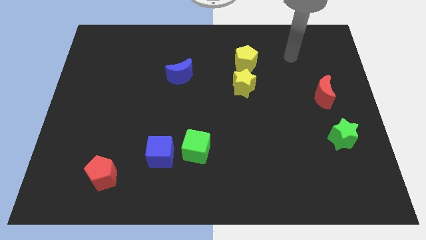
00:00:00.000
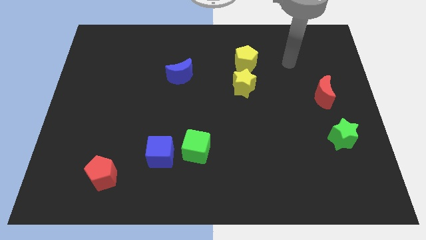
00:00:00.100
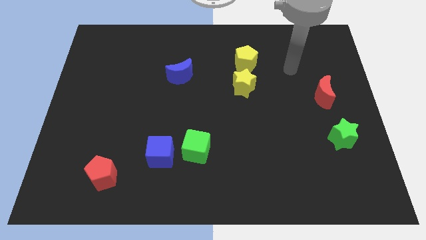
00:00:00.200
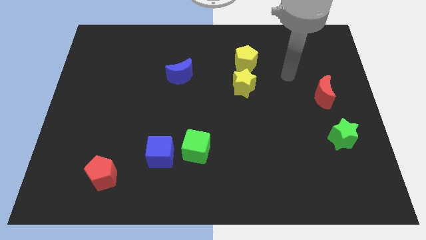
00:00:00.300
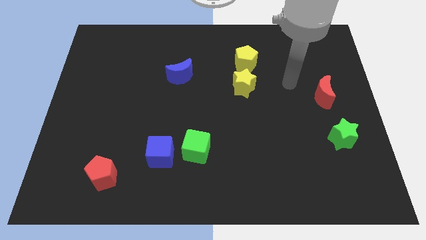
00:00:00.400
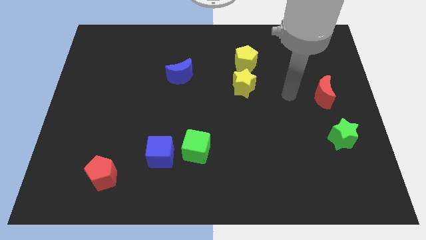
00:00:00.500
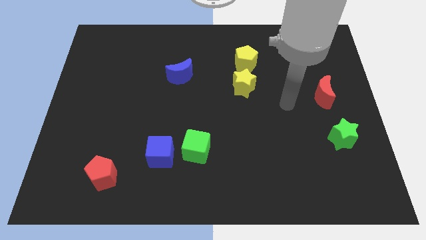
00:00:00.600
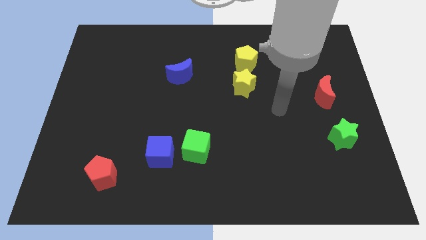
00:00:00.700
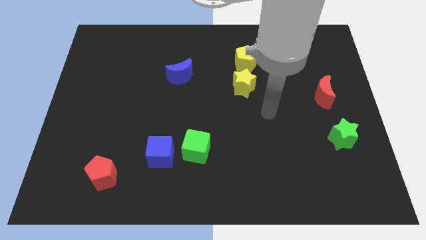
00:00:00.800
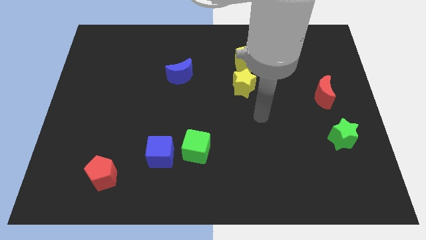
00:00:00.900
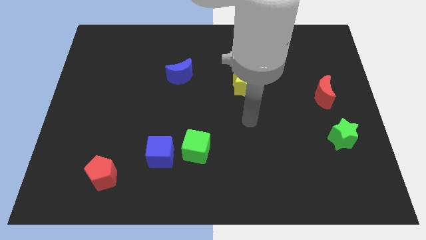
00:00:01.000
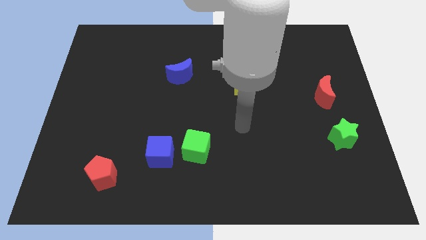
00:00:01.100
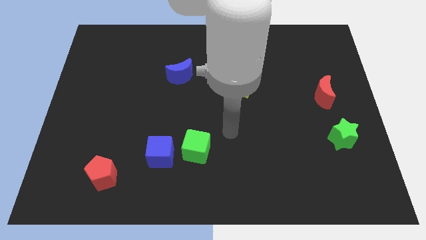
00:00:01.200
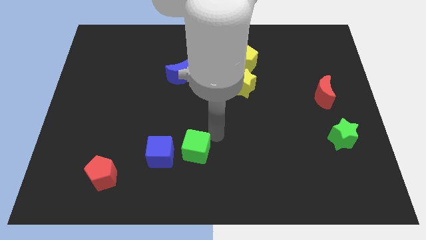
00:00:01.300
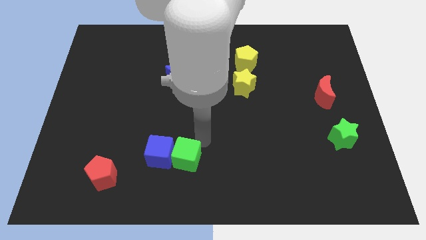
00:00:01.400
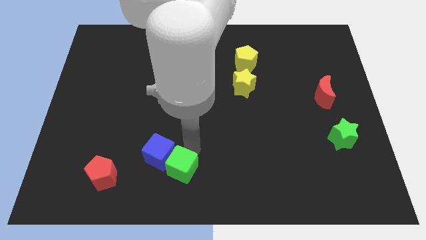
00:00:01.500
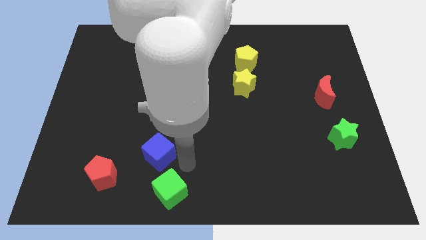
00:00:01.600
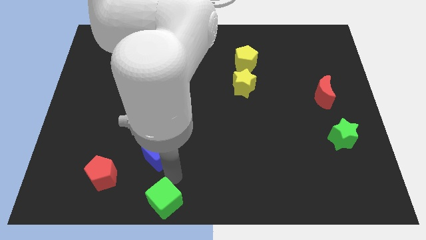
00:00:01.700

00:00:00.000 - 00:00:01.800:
pull the blue cube apart from the green cube

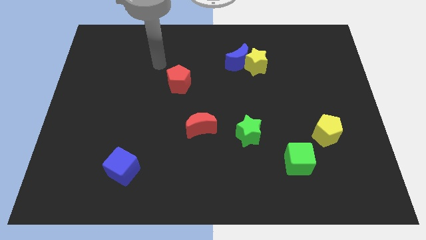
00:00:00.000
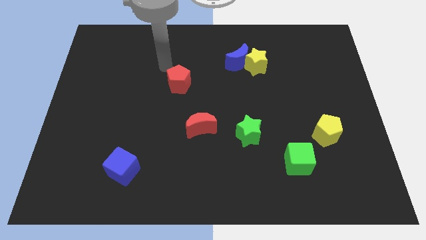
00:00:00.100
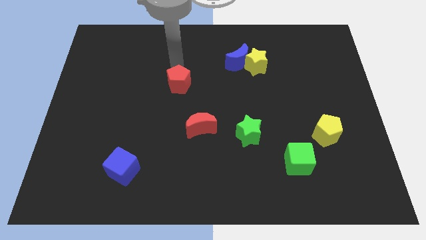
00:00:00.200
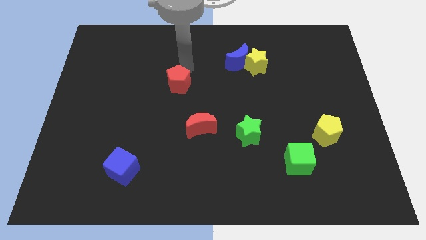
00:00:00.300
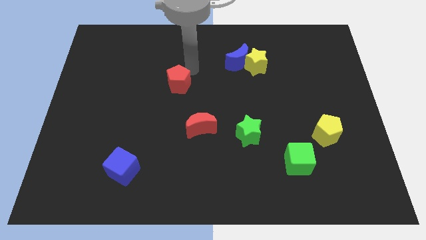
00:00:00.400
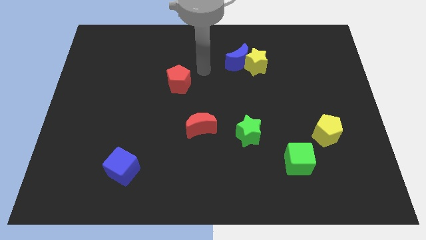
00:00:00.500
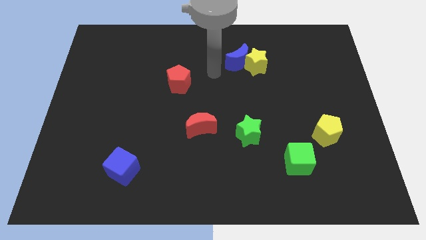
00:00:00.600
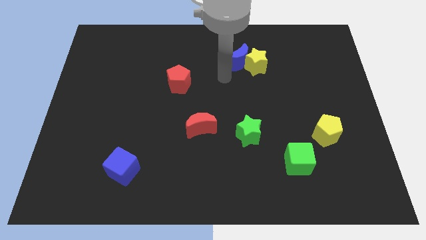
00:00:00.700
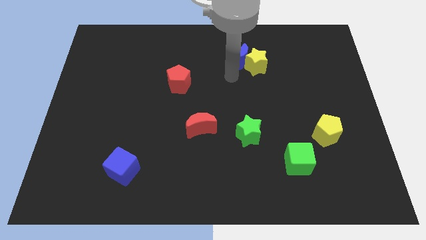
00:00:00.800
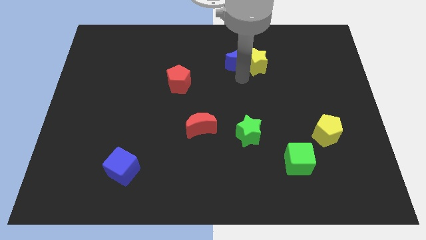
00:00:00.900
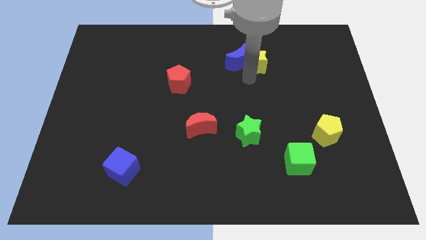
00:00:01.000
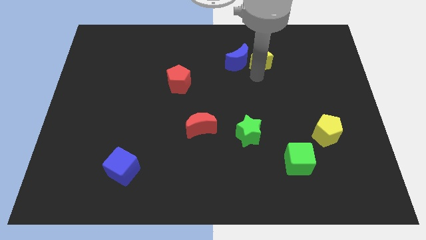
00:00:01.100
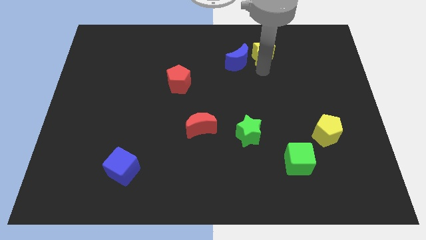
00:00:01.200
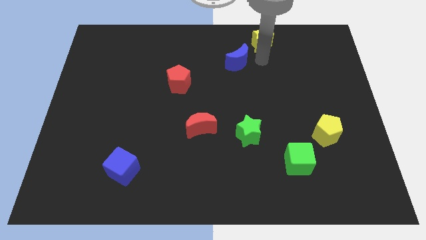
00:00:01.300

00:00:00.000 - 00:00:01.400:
separate the blue moon from the yellow star

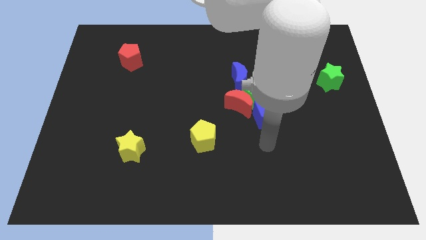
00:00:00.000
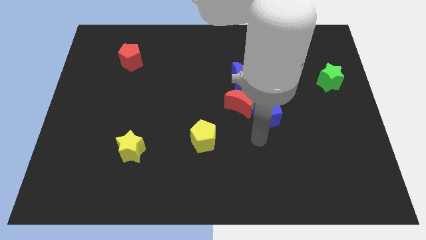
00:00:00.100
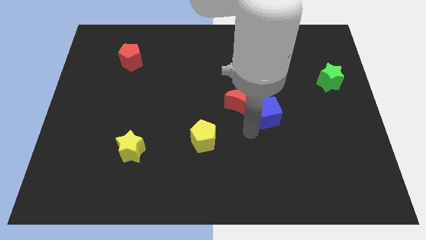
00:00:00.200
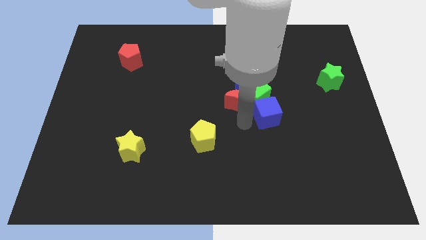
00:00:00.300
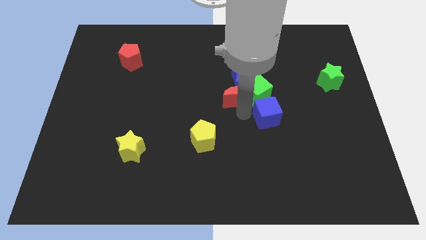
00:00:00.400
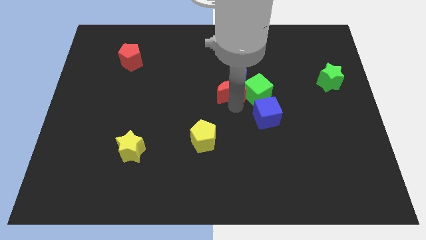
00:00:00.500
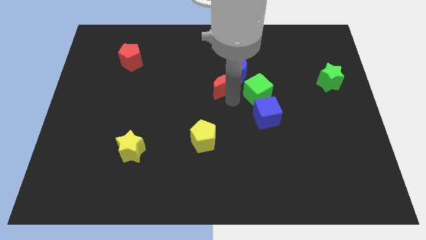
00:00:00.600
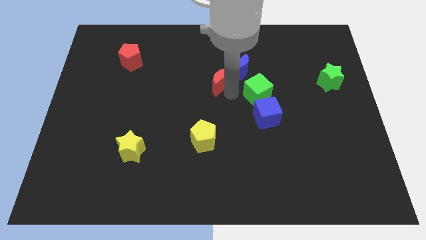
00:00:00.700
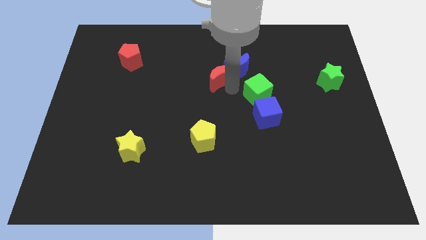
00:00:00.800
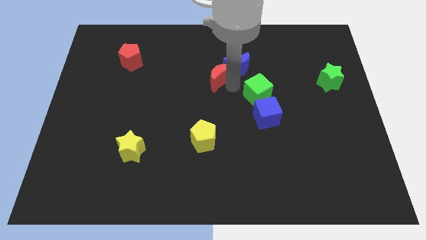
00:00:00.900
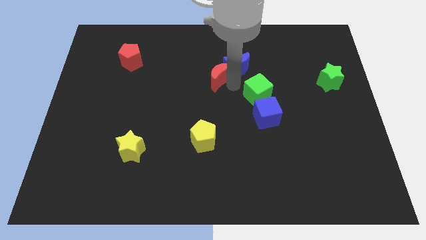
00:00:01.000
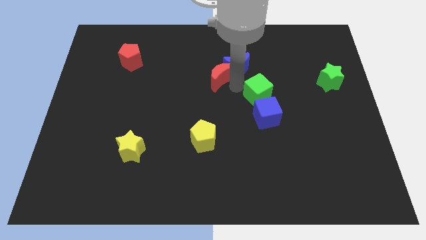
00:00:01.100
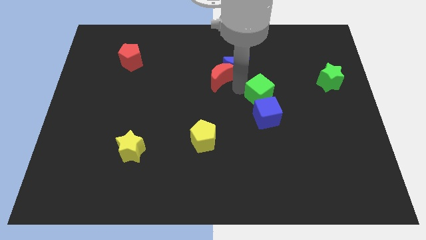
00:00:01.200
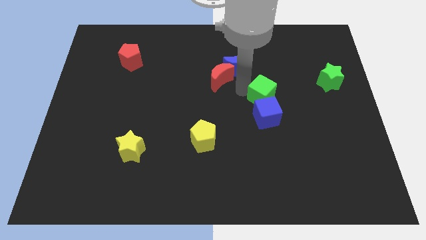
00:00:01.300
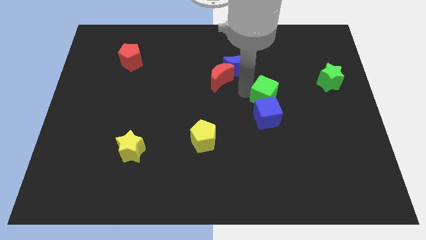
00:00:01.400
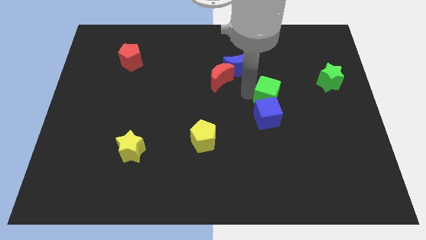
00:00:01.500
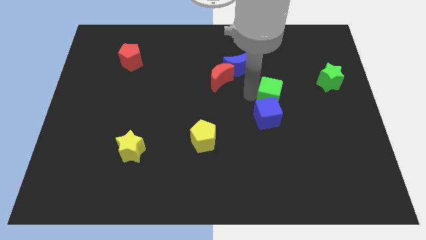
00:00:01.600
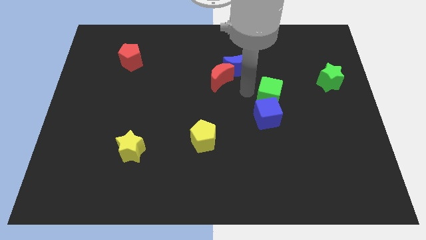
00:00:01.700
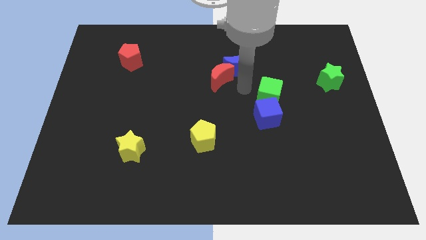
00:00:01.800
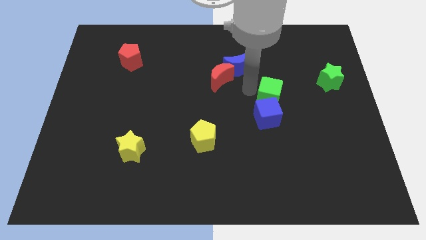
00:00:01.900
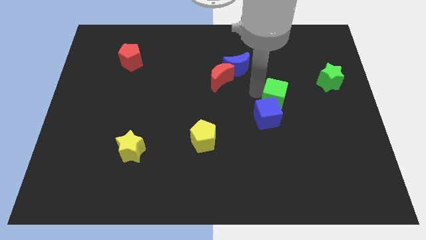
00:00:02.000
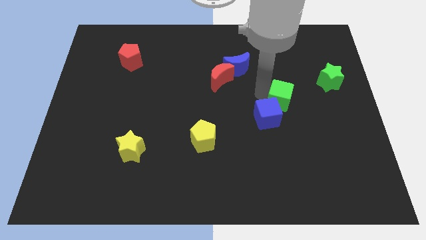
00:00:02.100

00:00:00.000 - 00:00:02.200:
pull the green cube apart from the clump

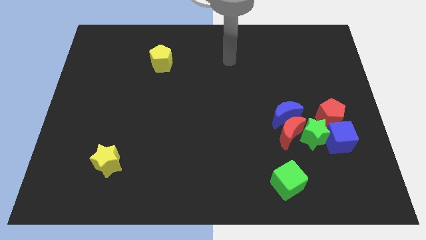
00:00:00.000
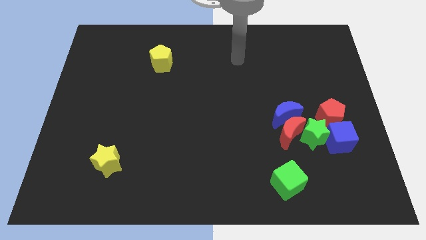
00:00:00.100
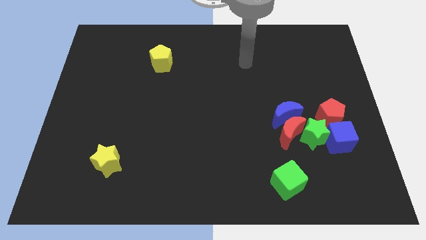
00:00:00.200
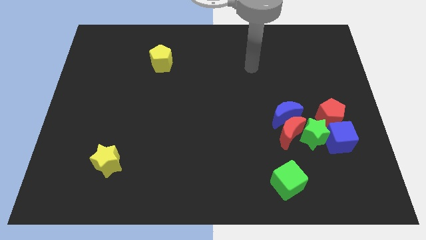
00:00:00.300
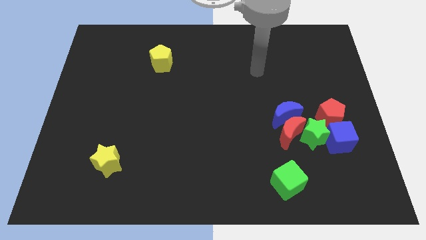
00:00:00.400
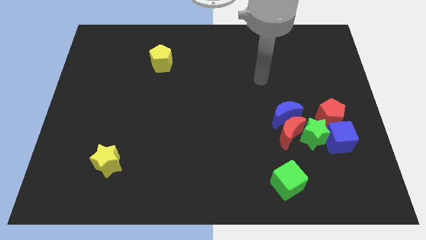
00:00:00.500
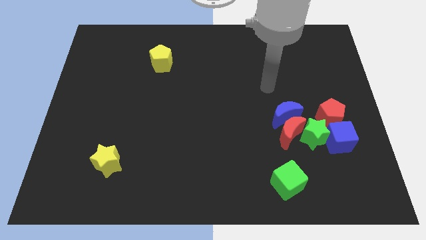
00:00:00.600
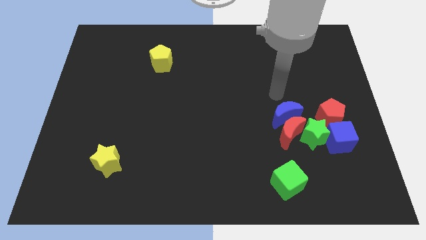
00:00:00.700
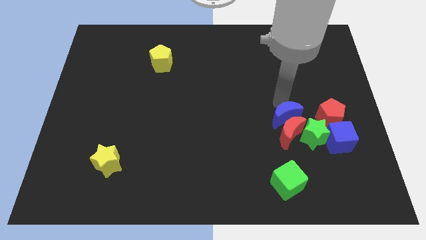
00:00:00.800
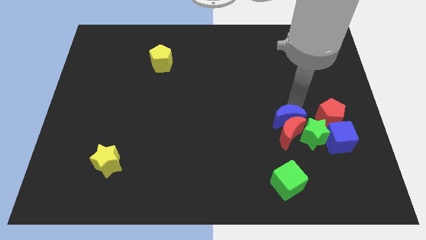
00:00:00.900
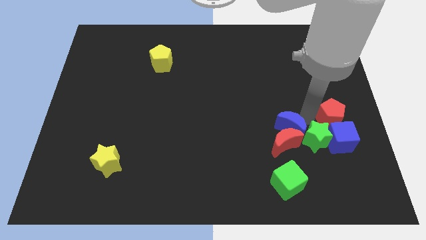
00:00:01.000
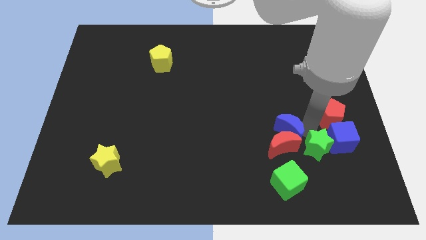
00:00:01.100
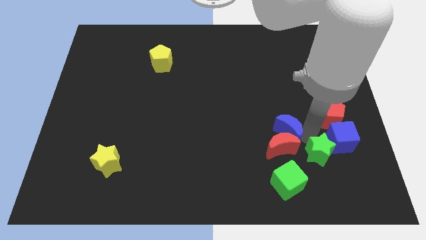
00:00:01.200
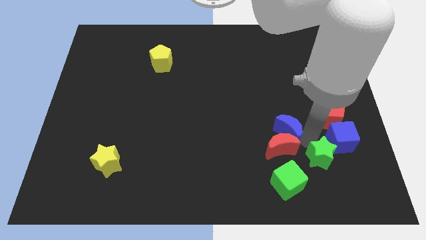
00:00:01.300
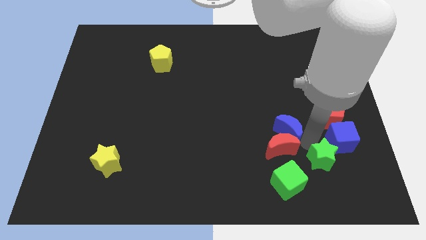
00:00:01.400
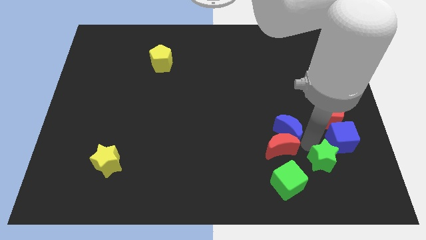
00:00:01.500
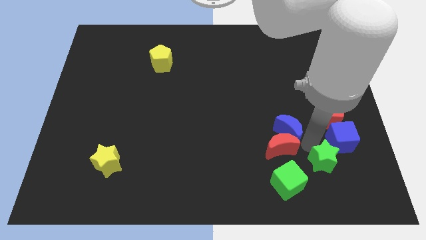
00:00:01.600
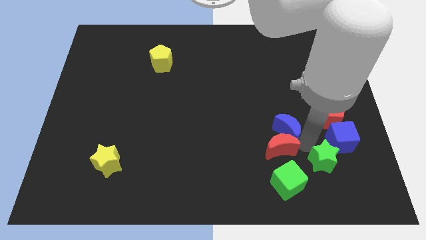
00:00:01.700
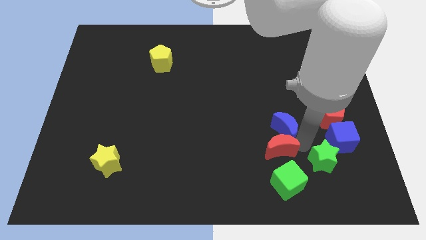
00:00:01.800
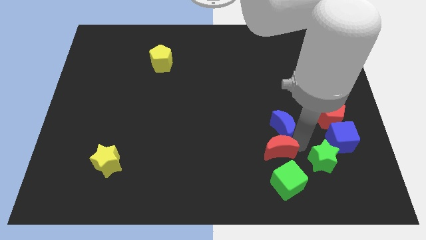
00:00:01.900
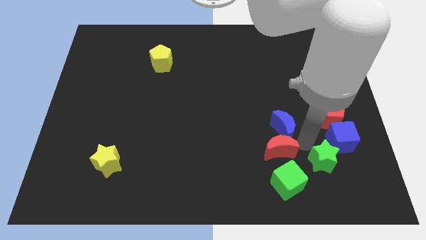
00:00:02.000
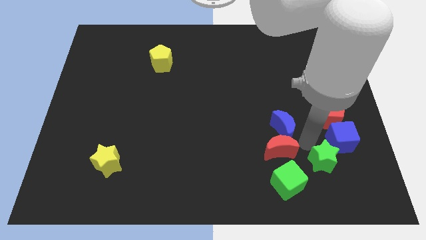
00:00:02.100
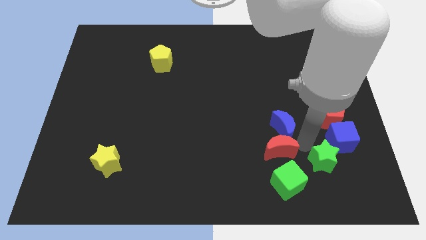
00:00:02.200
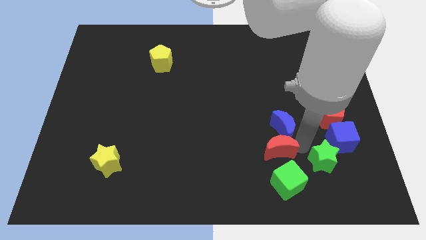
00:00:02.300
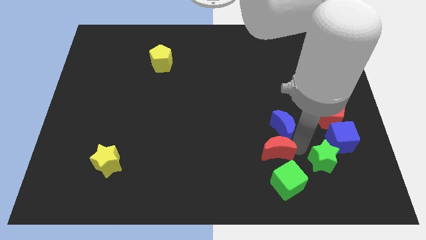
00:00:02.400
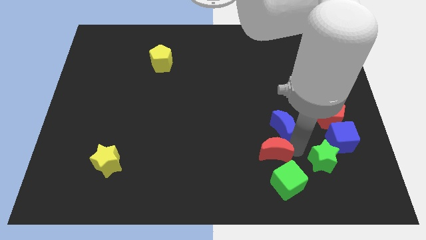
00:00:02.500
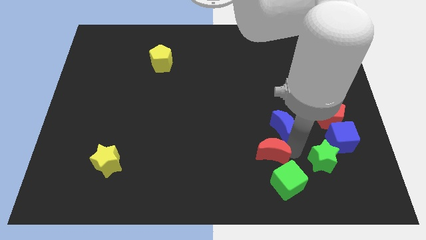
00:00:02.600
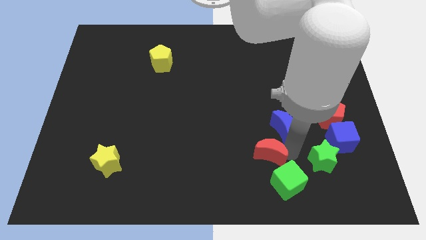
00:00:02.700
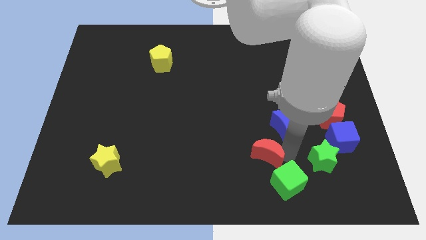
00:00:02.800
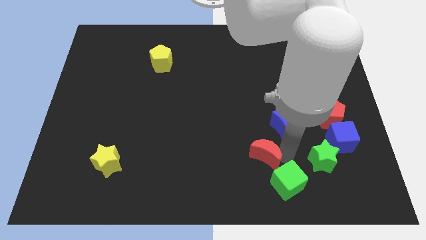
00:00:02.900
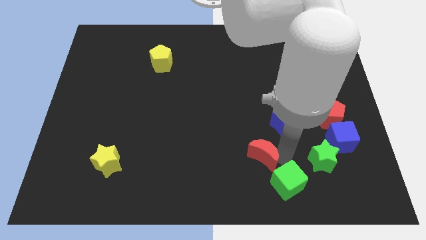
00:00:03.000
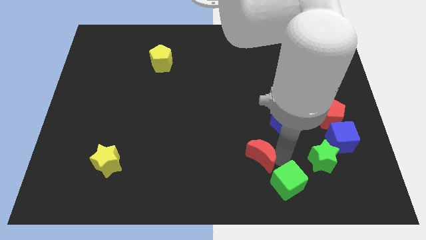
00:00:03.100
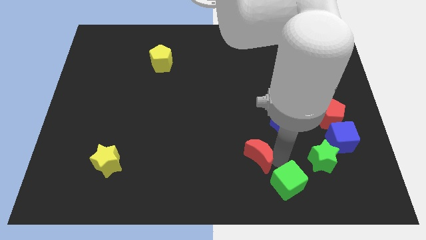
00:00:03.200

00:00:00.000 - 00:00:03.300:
pull the red moon apart from the blue moon and green star

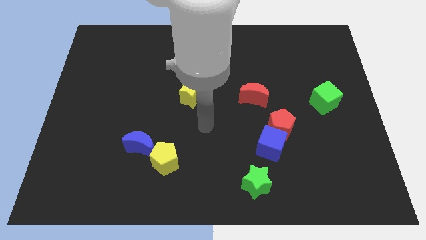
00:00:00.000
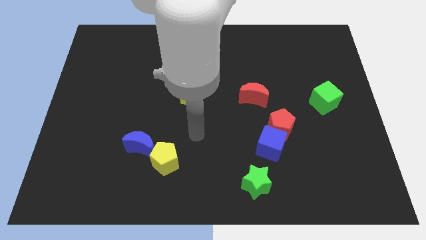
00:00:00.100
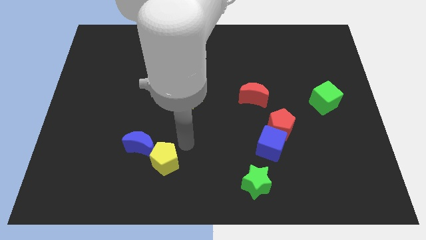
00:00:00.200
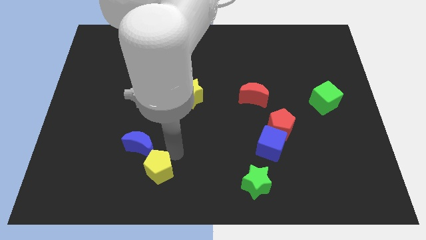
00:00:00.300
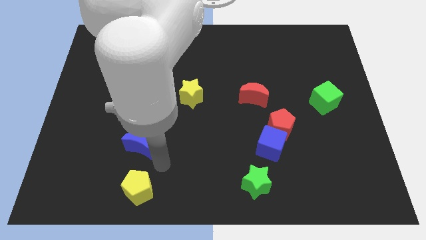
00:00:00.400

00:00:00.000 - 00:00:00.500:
separate the blue moon from the yellow pentagon

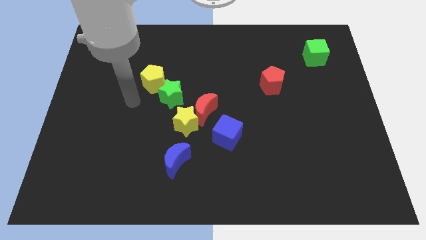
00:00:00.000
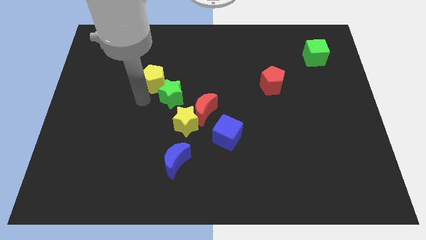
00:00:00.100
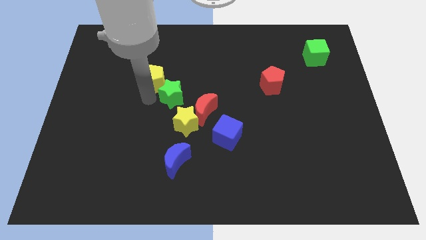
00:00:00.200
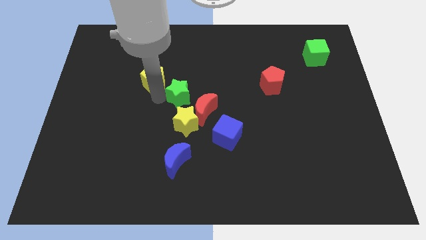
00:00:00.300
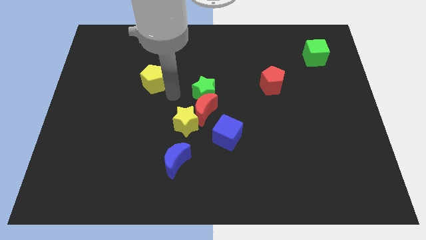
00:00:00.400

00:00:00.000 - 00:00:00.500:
move the yellow pentagon away from the green star
